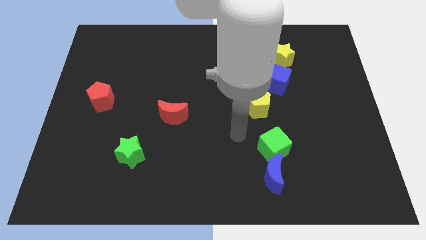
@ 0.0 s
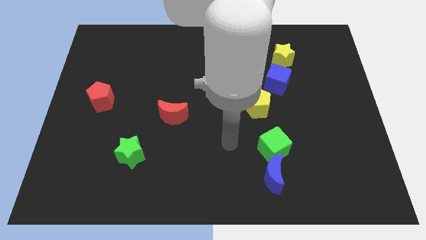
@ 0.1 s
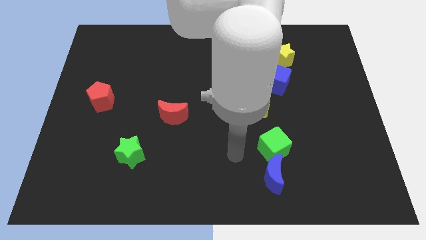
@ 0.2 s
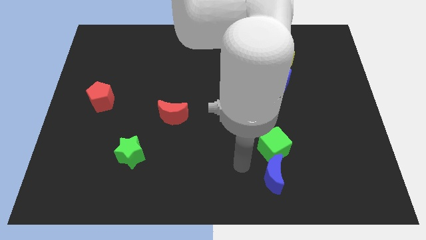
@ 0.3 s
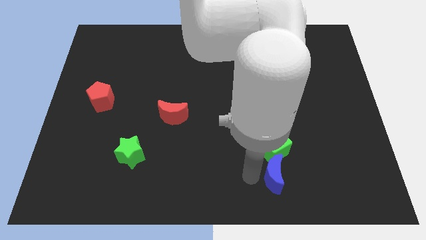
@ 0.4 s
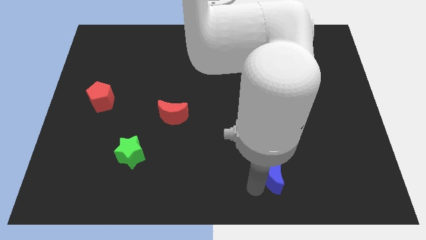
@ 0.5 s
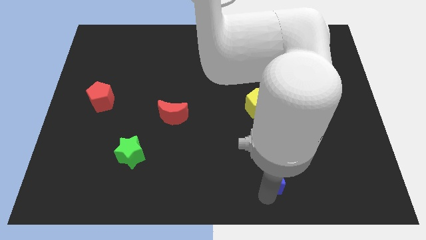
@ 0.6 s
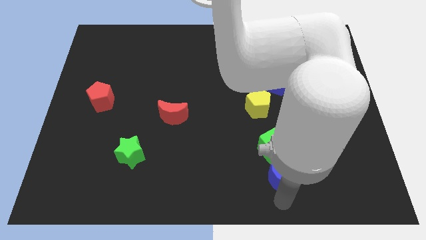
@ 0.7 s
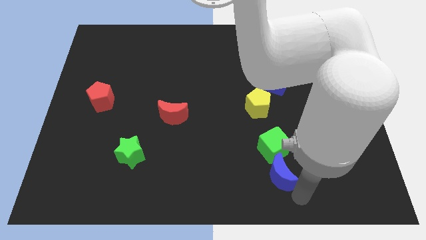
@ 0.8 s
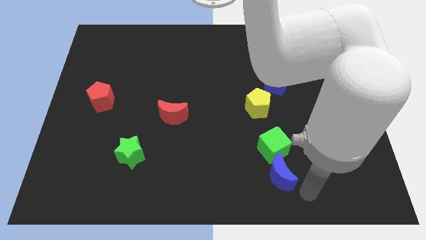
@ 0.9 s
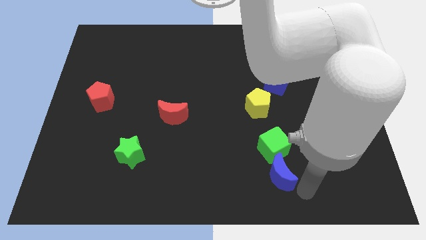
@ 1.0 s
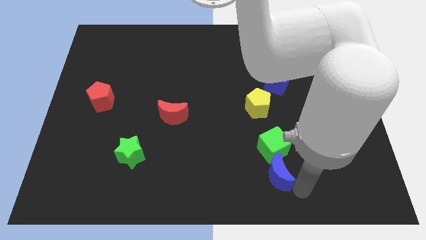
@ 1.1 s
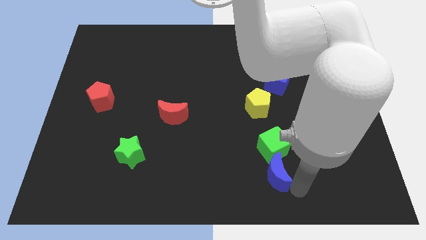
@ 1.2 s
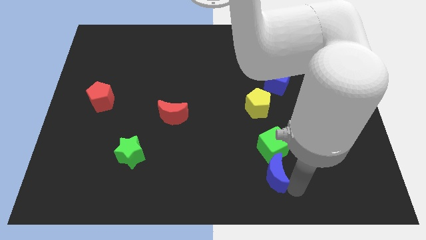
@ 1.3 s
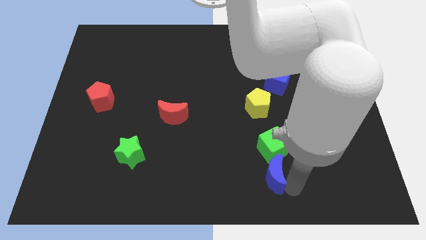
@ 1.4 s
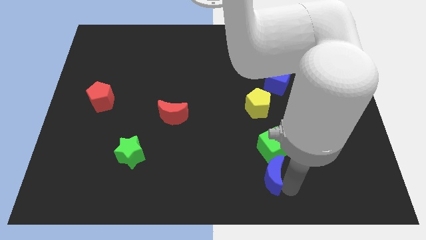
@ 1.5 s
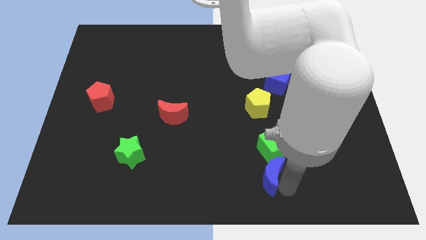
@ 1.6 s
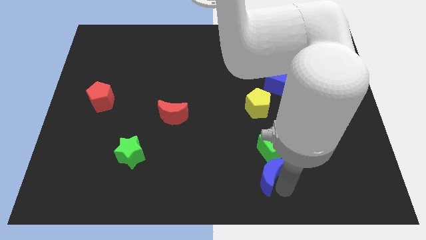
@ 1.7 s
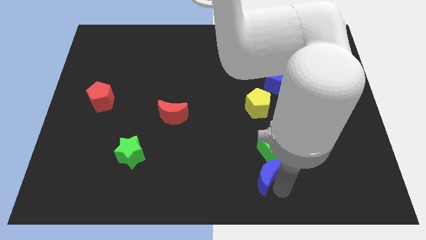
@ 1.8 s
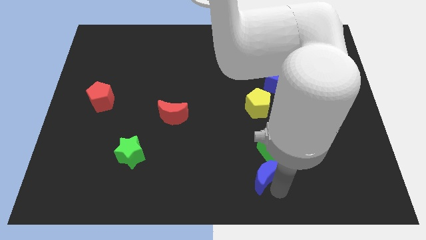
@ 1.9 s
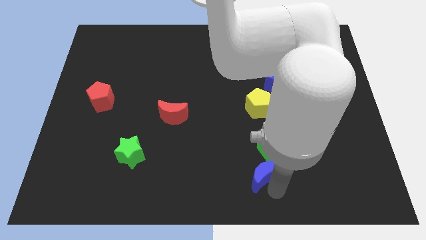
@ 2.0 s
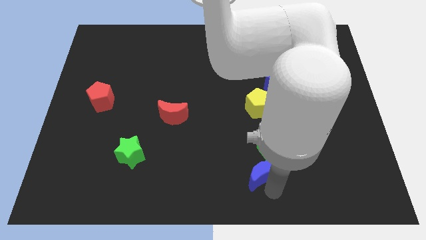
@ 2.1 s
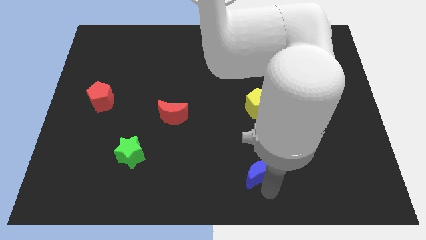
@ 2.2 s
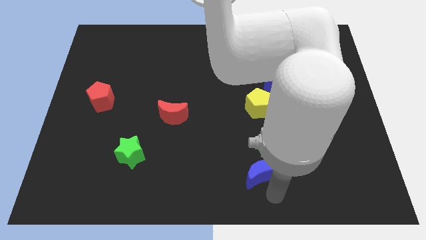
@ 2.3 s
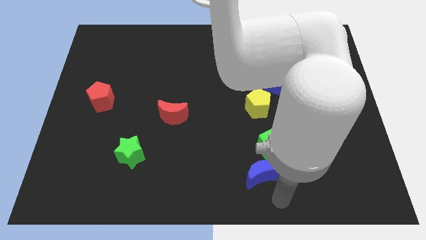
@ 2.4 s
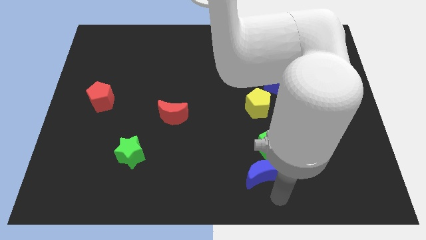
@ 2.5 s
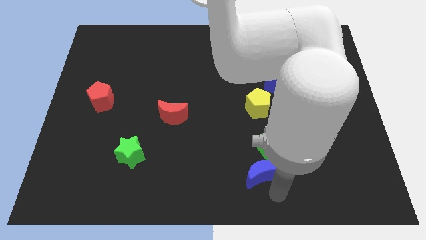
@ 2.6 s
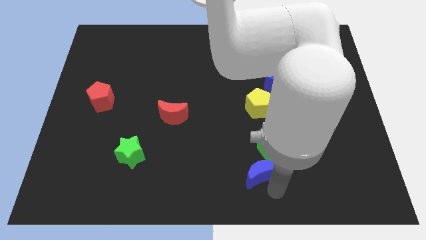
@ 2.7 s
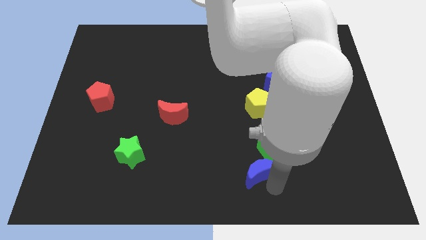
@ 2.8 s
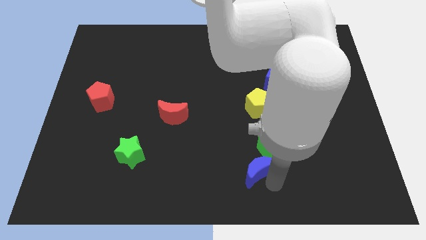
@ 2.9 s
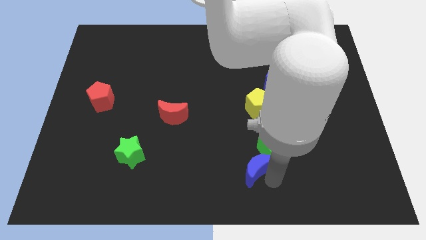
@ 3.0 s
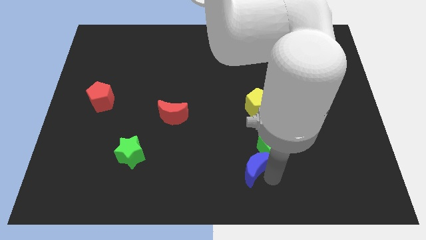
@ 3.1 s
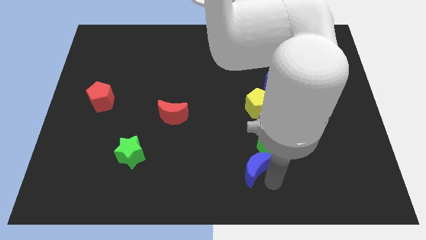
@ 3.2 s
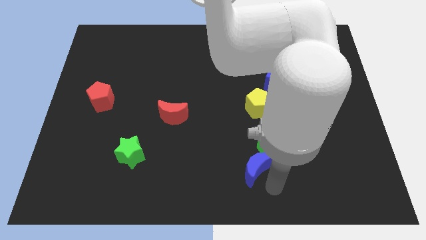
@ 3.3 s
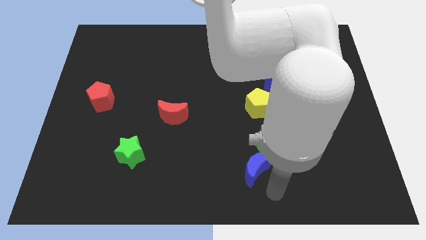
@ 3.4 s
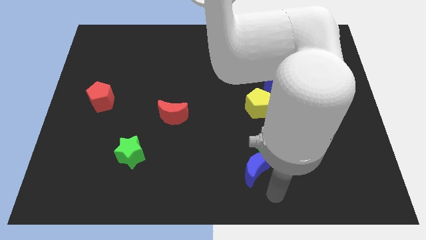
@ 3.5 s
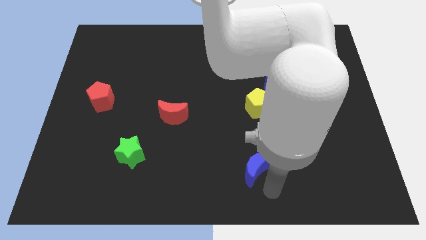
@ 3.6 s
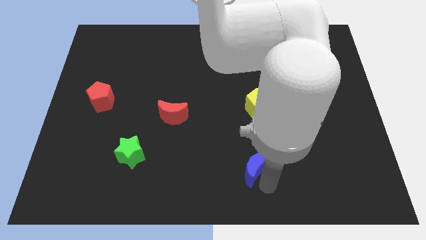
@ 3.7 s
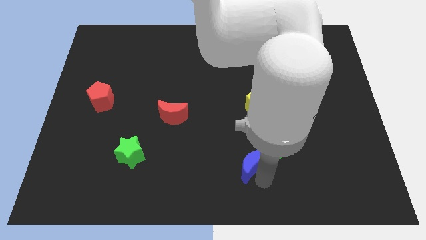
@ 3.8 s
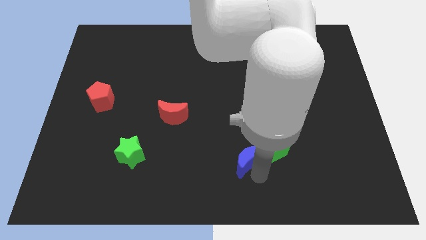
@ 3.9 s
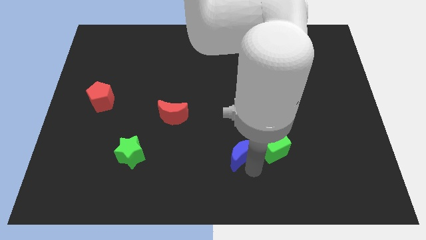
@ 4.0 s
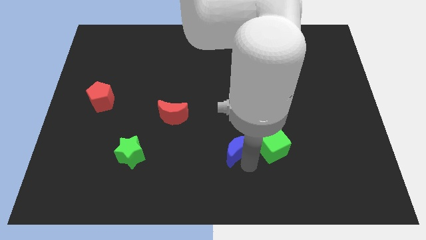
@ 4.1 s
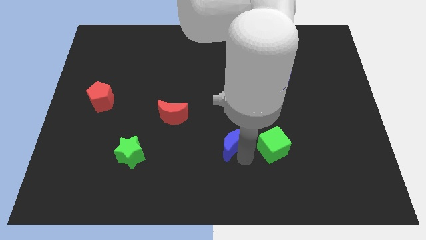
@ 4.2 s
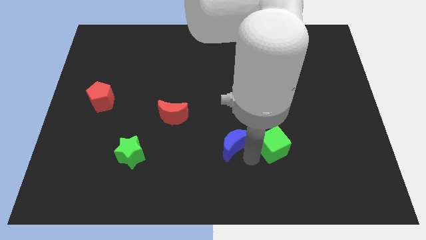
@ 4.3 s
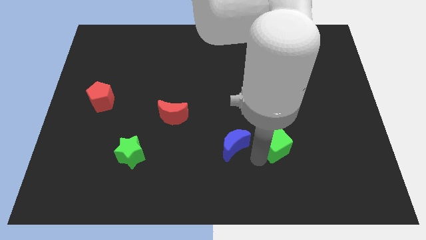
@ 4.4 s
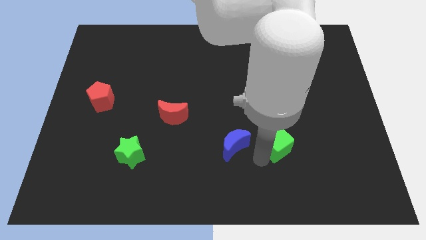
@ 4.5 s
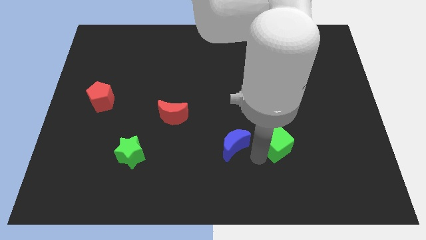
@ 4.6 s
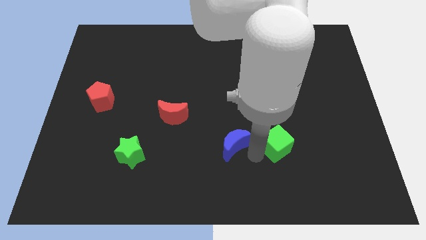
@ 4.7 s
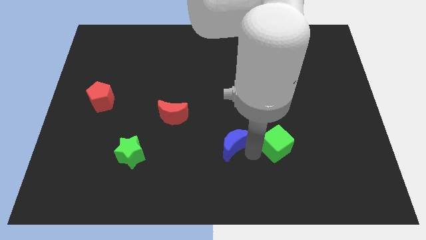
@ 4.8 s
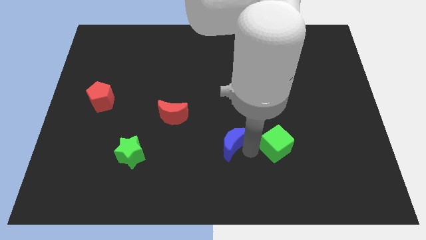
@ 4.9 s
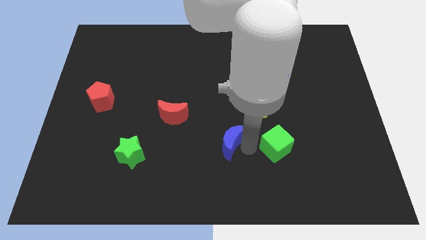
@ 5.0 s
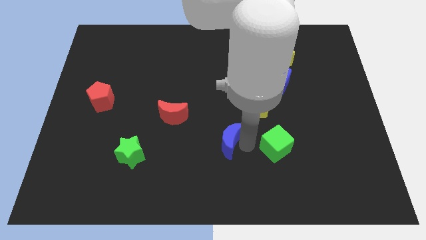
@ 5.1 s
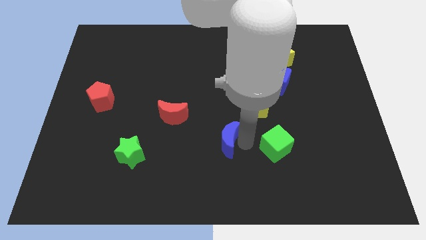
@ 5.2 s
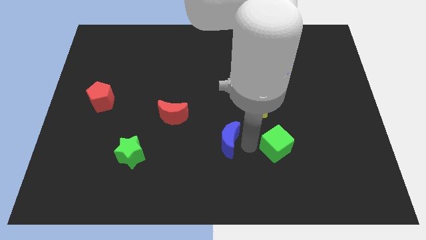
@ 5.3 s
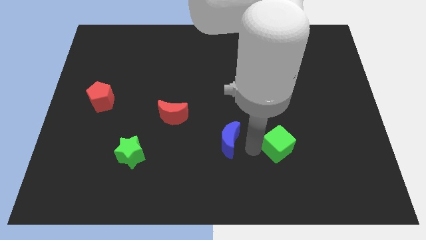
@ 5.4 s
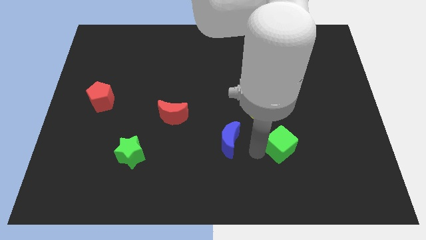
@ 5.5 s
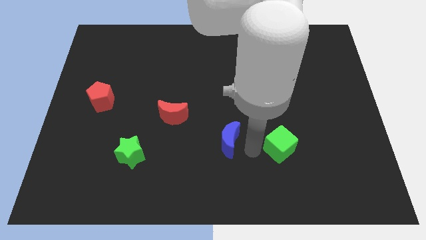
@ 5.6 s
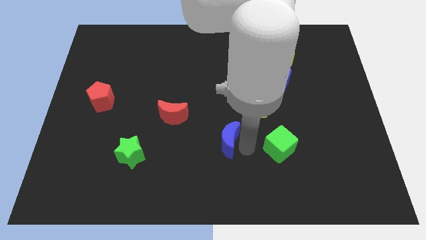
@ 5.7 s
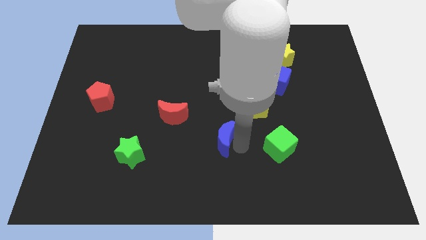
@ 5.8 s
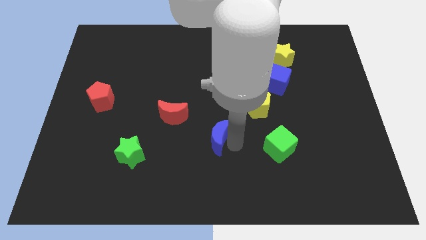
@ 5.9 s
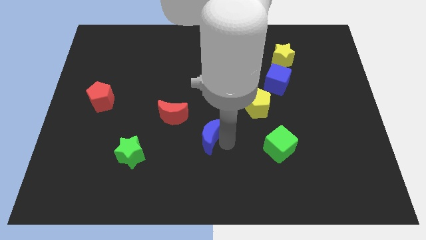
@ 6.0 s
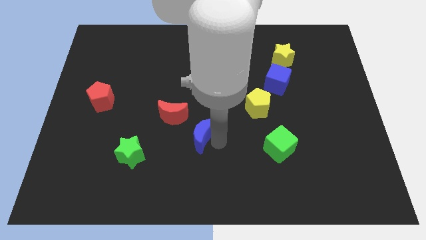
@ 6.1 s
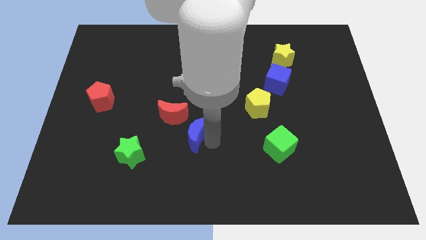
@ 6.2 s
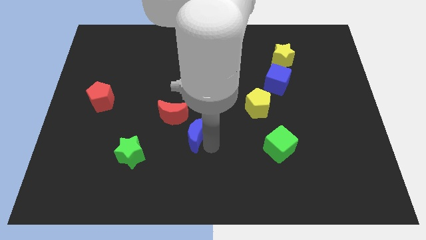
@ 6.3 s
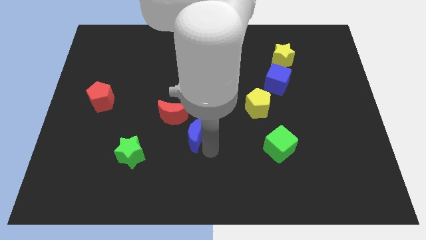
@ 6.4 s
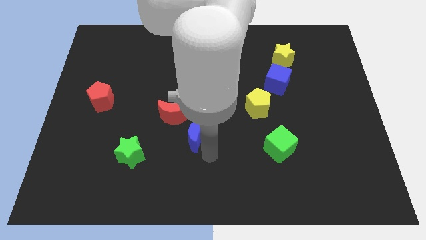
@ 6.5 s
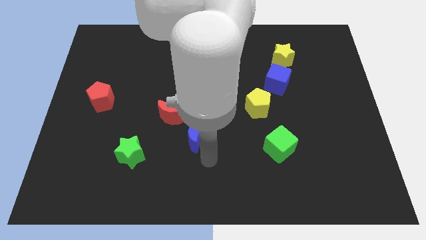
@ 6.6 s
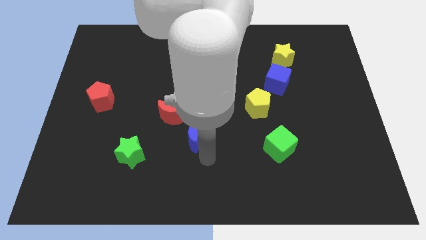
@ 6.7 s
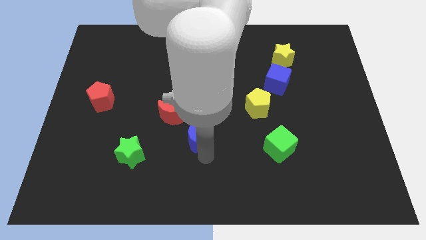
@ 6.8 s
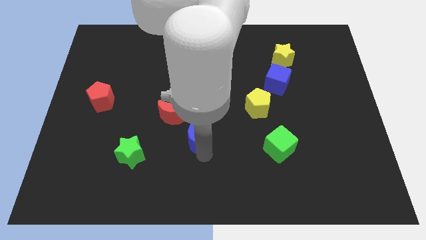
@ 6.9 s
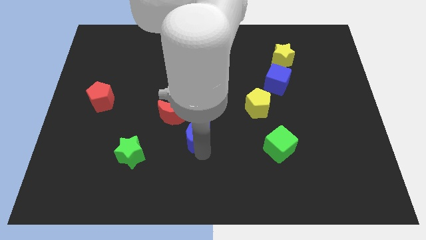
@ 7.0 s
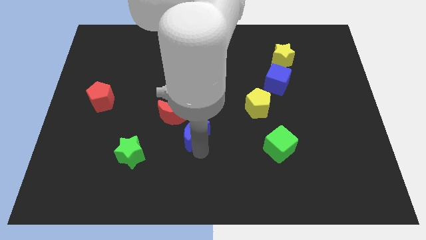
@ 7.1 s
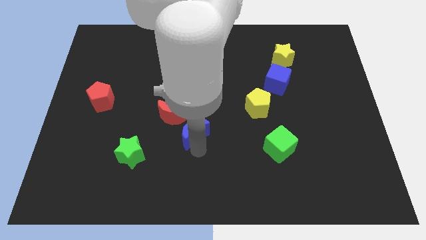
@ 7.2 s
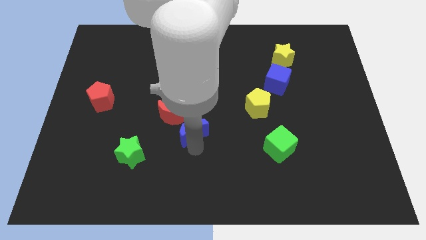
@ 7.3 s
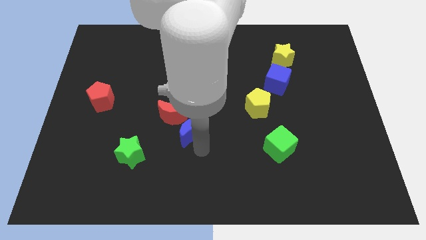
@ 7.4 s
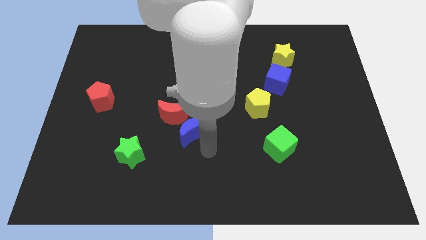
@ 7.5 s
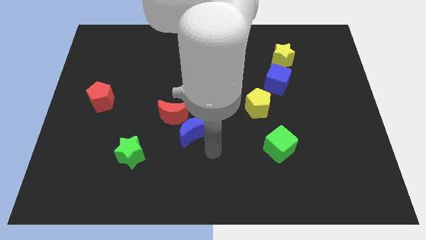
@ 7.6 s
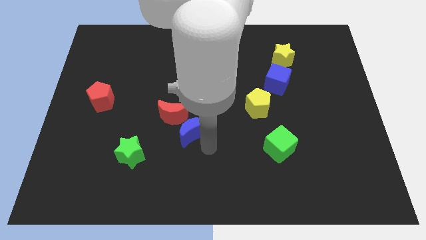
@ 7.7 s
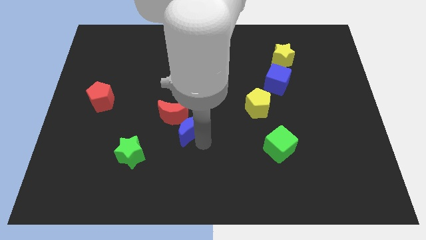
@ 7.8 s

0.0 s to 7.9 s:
put the blue moon to the red moon
